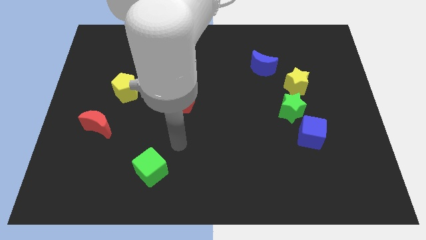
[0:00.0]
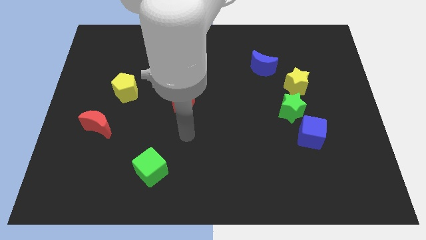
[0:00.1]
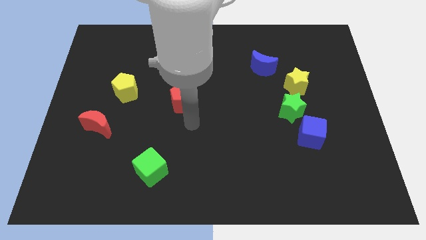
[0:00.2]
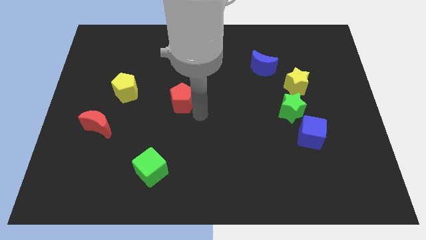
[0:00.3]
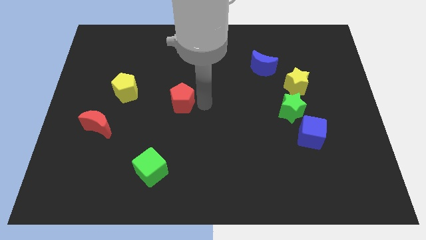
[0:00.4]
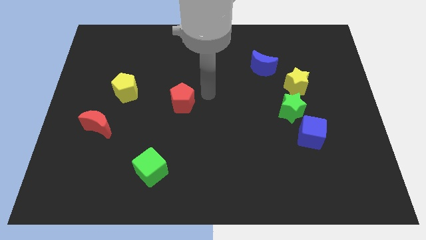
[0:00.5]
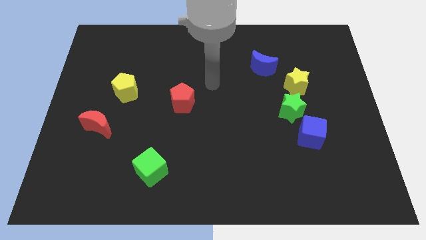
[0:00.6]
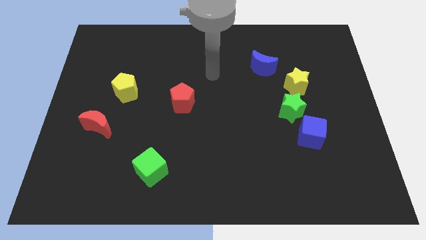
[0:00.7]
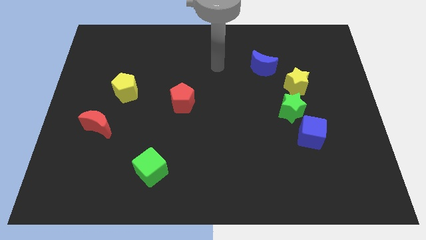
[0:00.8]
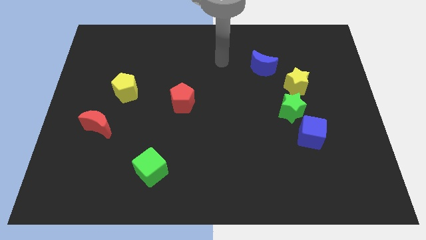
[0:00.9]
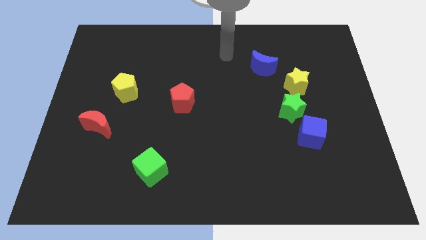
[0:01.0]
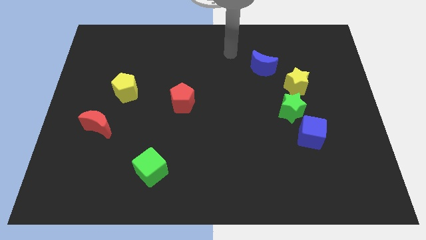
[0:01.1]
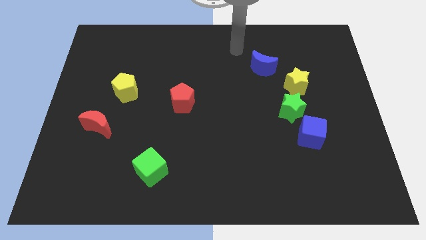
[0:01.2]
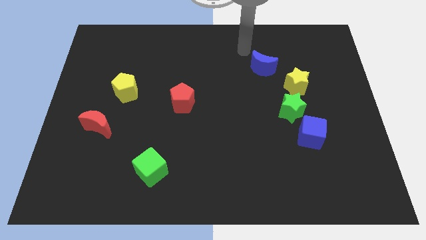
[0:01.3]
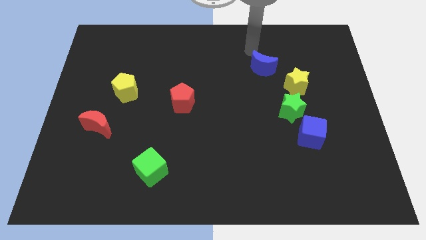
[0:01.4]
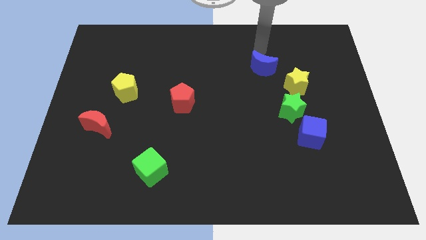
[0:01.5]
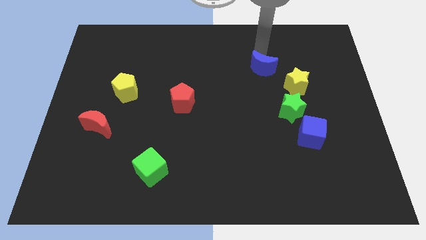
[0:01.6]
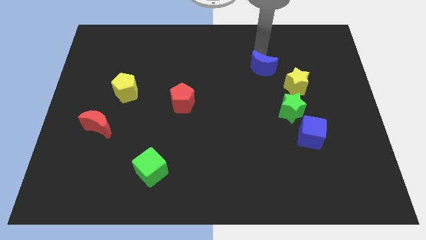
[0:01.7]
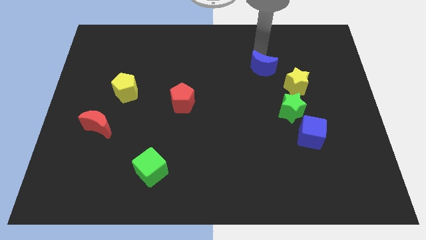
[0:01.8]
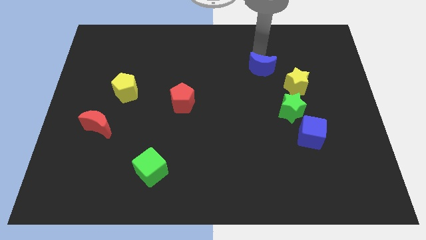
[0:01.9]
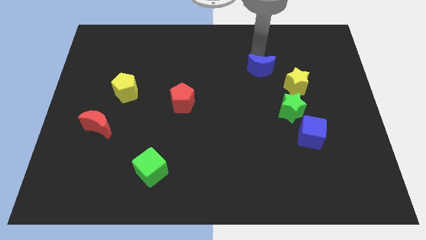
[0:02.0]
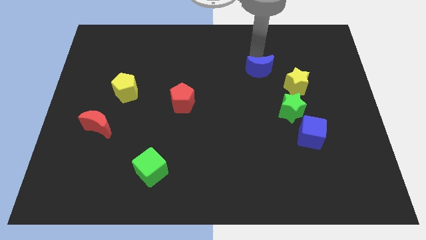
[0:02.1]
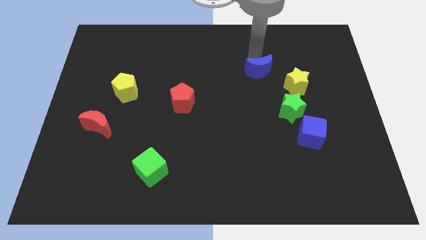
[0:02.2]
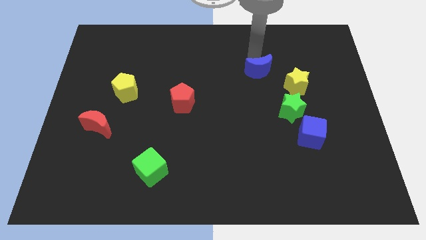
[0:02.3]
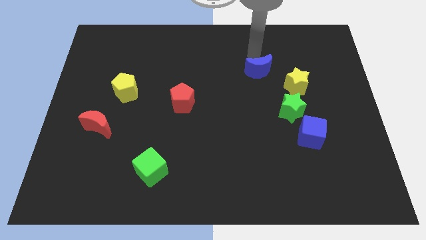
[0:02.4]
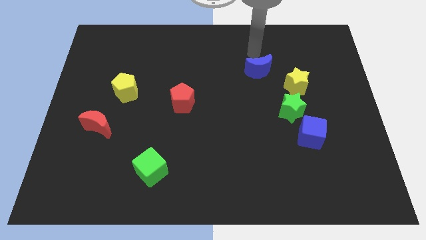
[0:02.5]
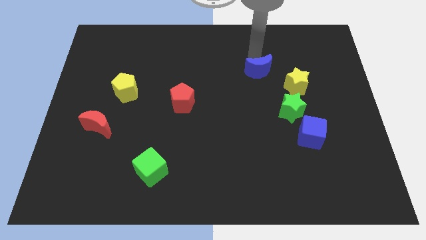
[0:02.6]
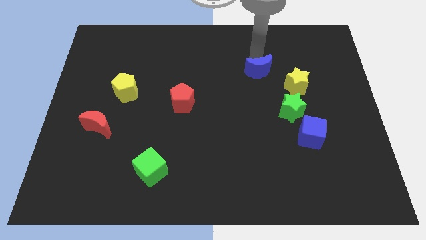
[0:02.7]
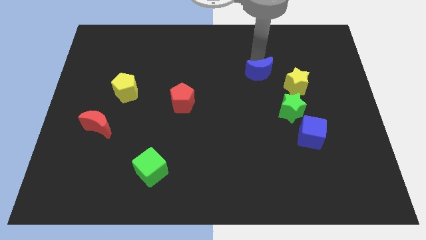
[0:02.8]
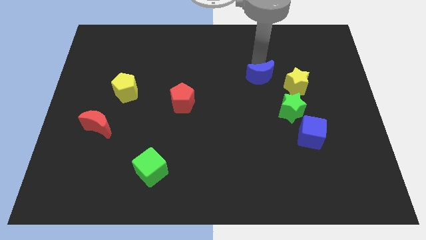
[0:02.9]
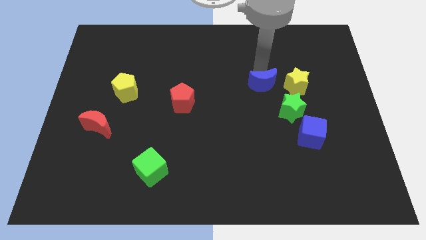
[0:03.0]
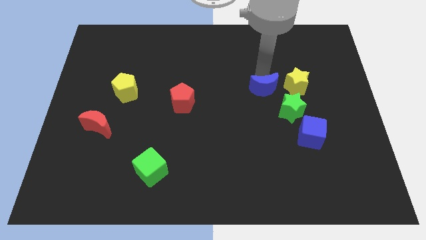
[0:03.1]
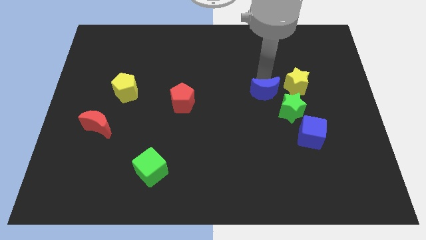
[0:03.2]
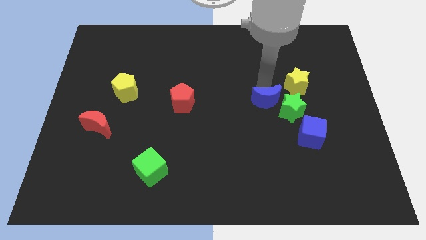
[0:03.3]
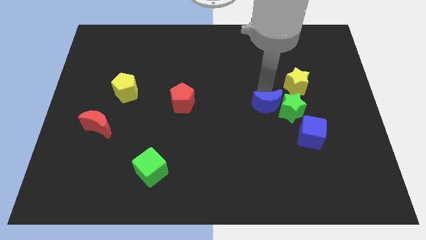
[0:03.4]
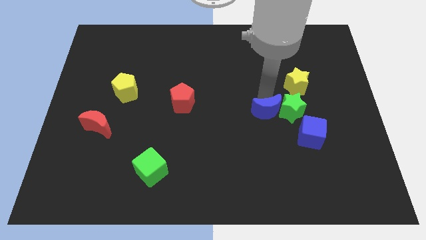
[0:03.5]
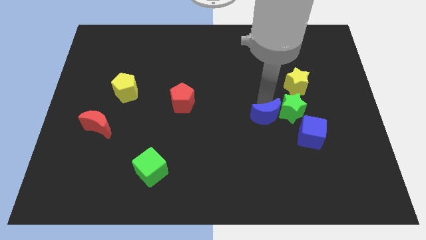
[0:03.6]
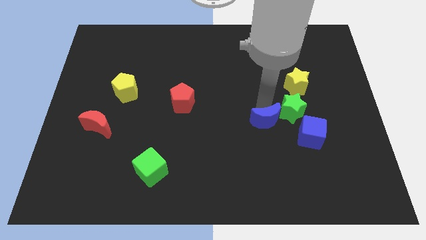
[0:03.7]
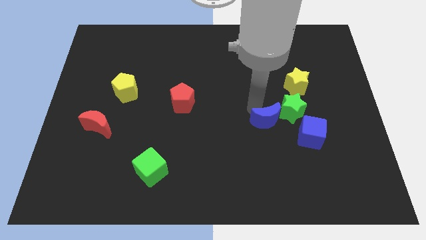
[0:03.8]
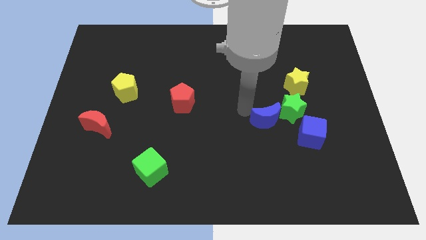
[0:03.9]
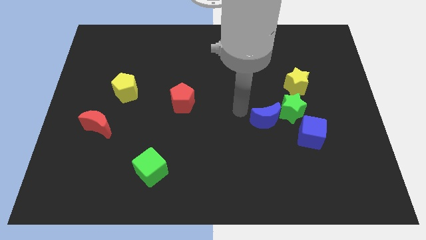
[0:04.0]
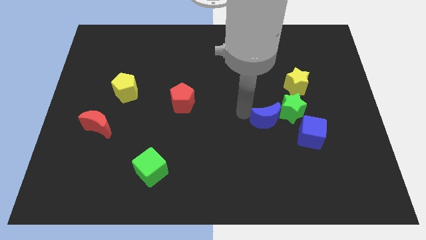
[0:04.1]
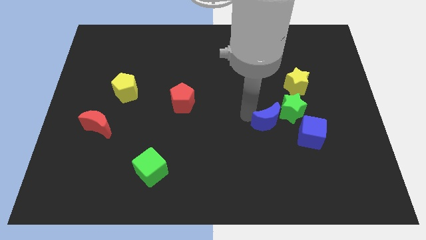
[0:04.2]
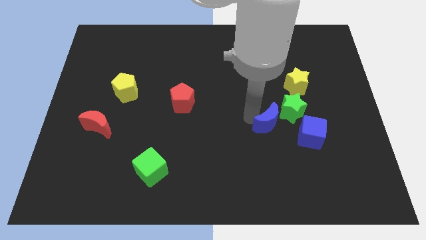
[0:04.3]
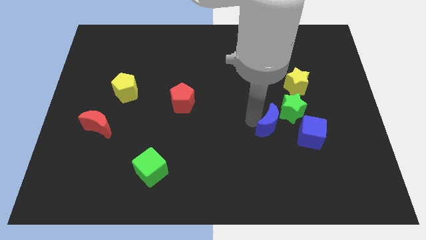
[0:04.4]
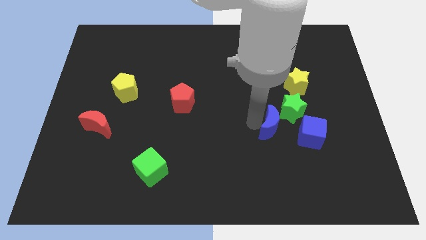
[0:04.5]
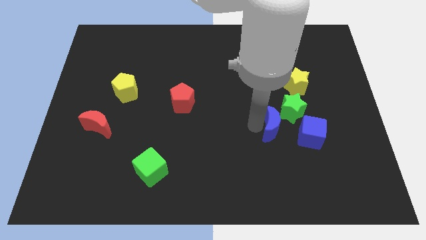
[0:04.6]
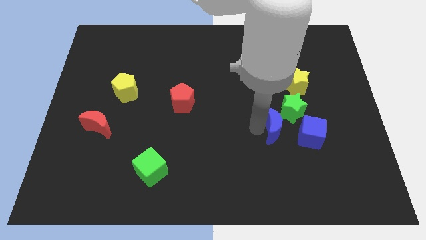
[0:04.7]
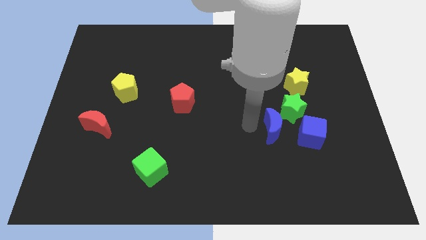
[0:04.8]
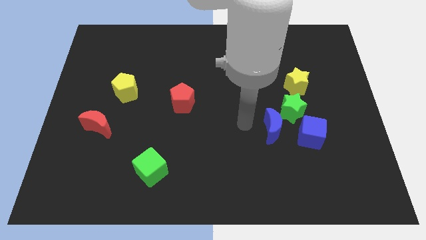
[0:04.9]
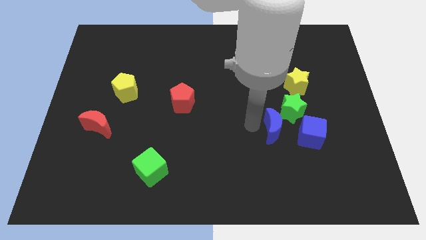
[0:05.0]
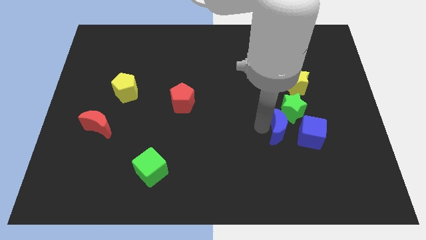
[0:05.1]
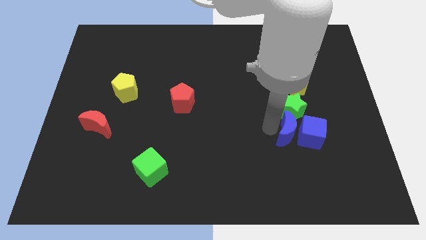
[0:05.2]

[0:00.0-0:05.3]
put the blue moon towards the blue cube
